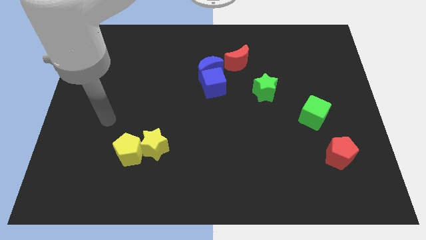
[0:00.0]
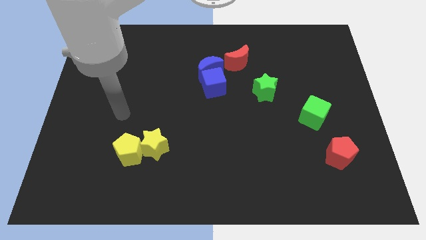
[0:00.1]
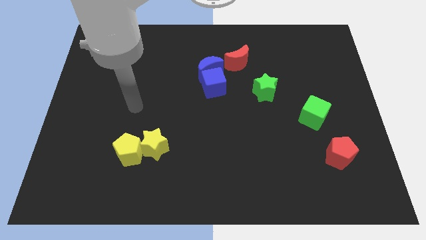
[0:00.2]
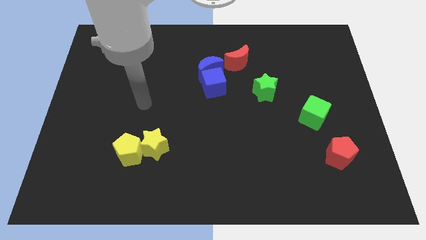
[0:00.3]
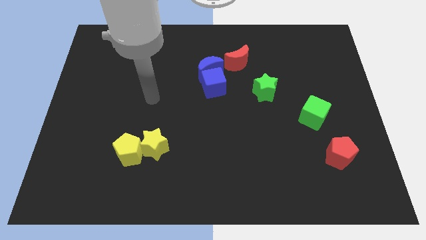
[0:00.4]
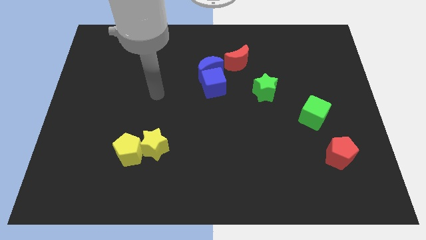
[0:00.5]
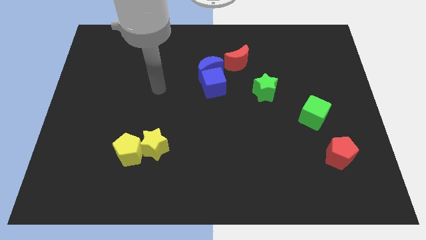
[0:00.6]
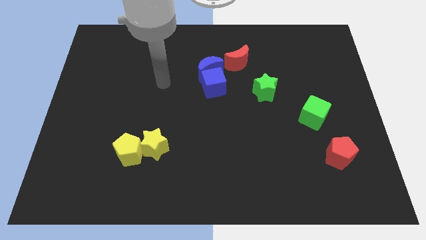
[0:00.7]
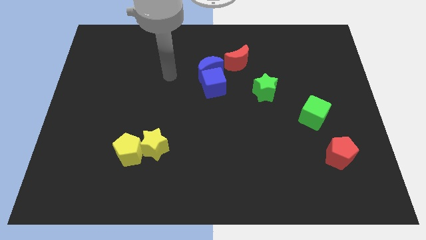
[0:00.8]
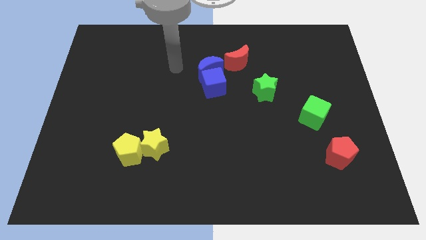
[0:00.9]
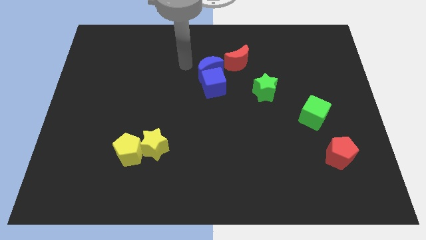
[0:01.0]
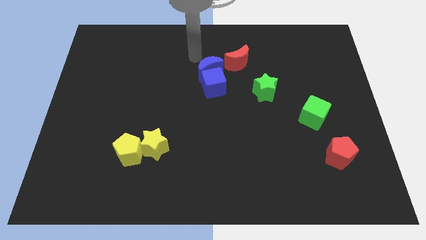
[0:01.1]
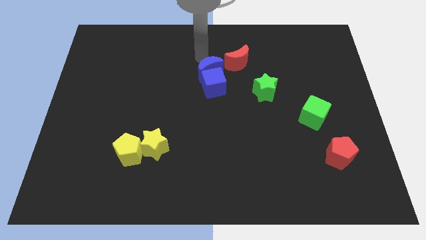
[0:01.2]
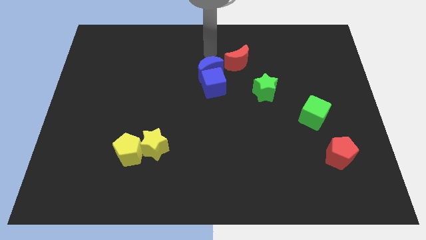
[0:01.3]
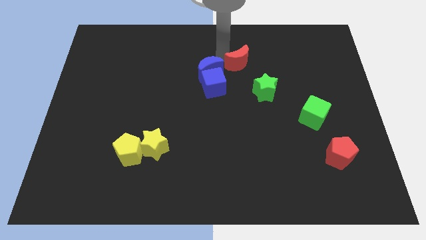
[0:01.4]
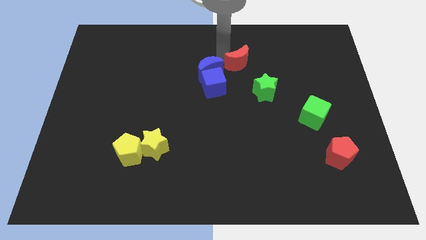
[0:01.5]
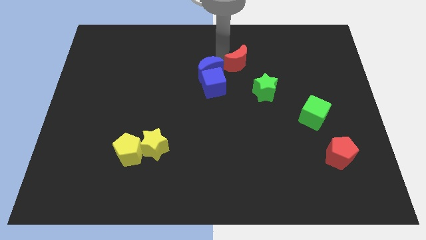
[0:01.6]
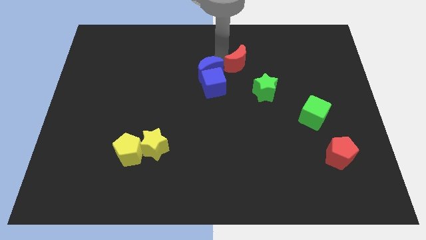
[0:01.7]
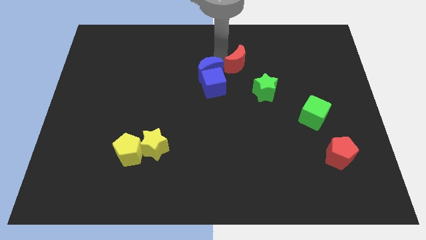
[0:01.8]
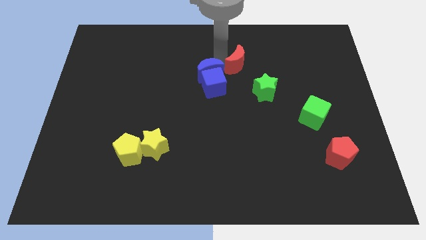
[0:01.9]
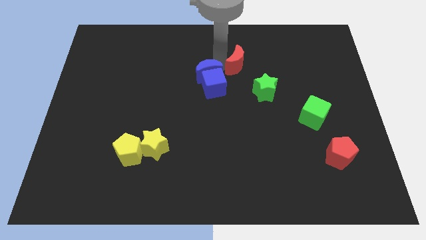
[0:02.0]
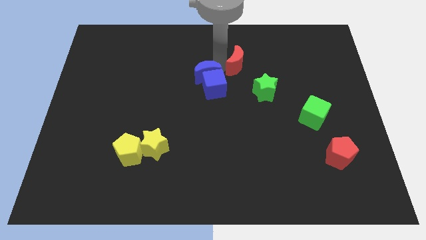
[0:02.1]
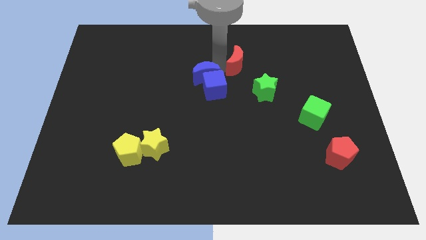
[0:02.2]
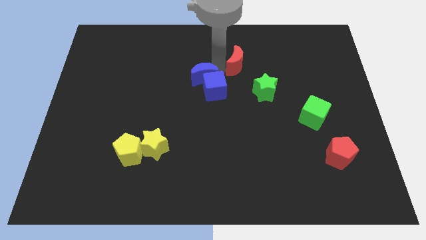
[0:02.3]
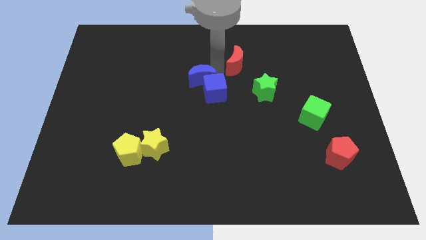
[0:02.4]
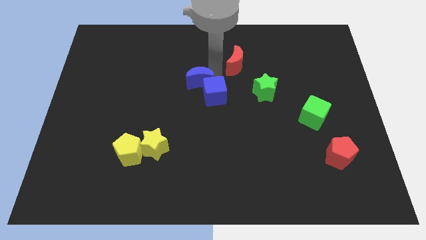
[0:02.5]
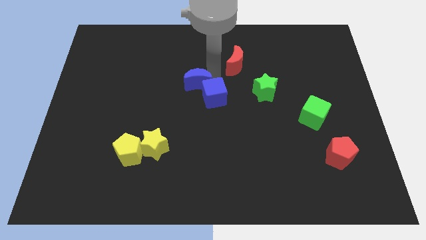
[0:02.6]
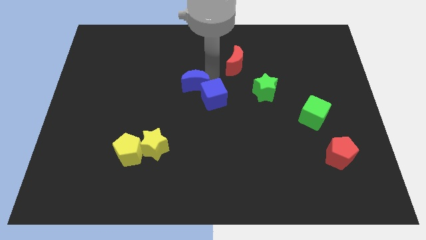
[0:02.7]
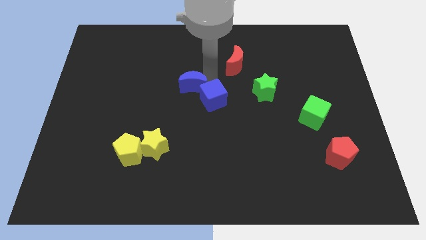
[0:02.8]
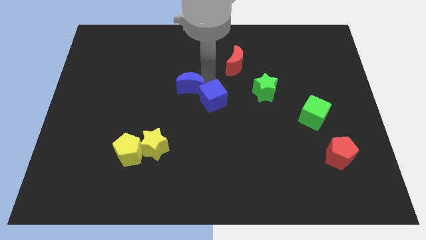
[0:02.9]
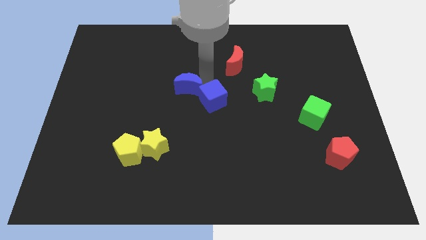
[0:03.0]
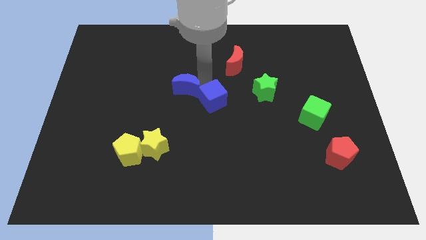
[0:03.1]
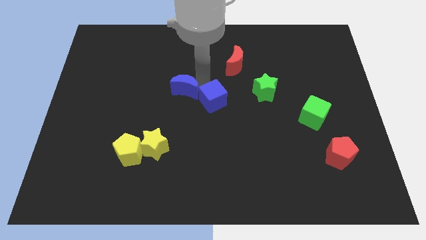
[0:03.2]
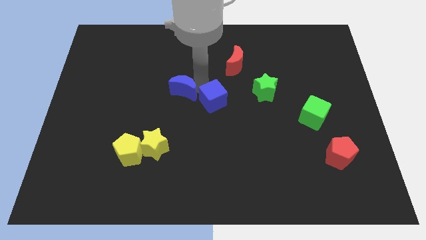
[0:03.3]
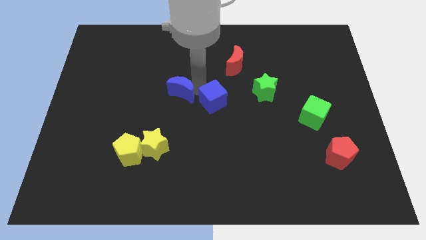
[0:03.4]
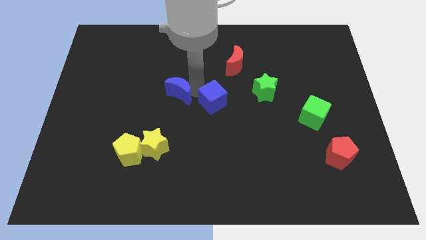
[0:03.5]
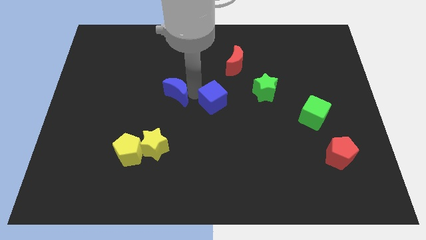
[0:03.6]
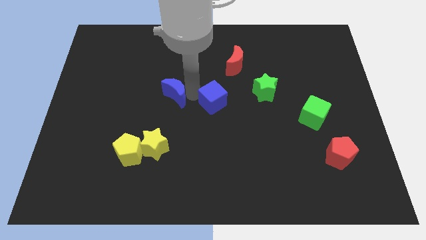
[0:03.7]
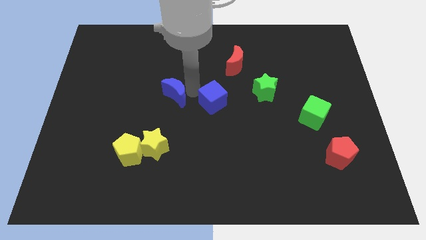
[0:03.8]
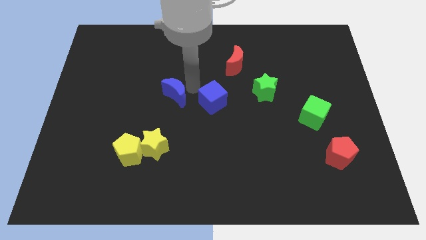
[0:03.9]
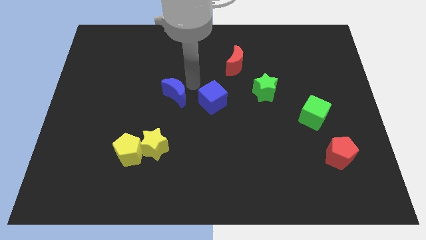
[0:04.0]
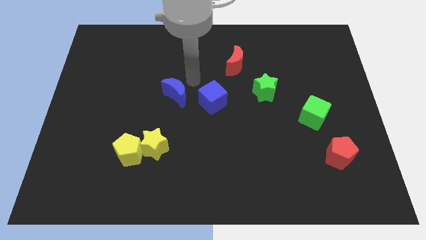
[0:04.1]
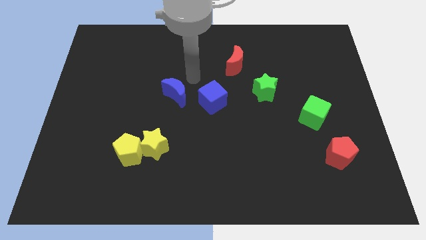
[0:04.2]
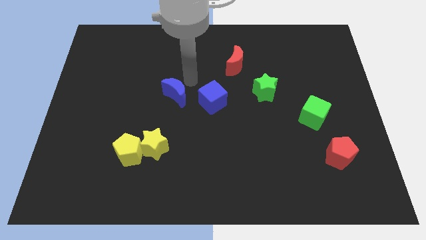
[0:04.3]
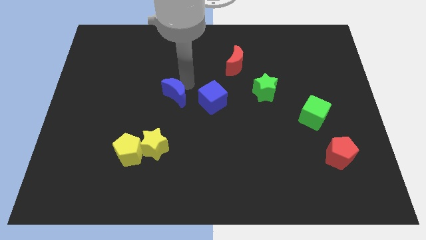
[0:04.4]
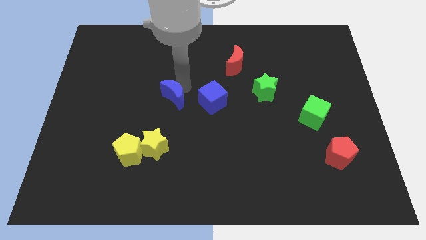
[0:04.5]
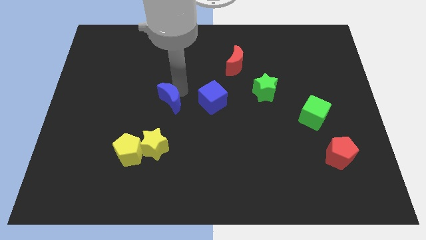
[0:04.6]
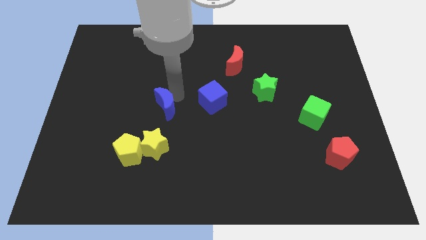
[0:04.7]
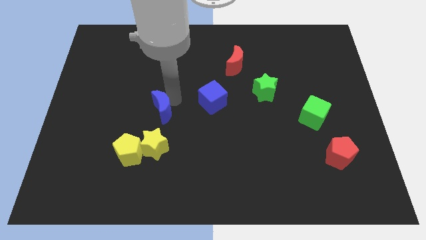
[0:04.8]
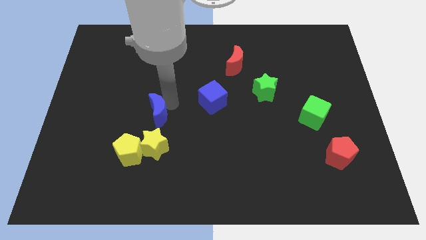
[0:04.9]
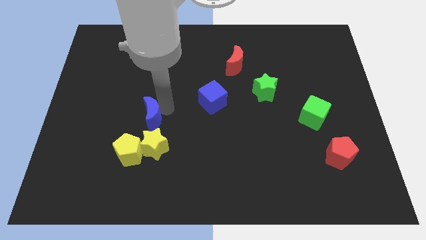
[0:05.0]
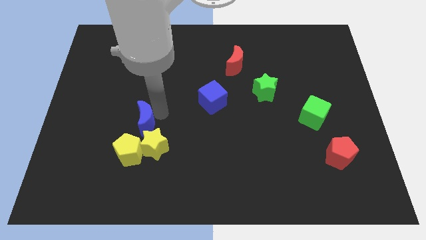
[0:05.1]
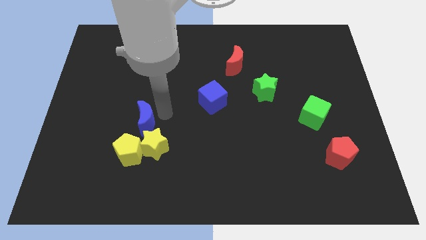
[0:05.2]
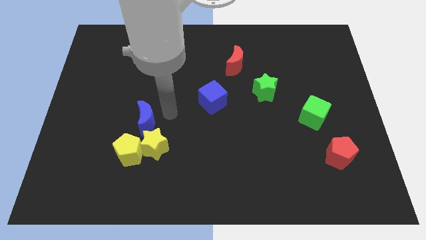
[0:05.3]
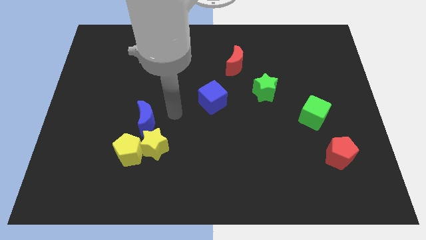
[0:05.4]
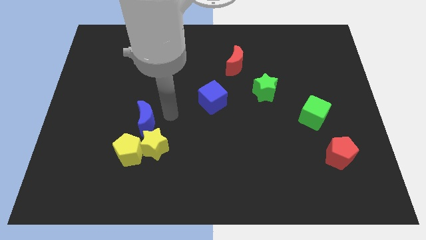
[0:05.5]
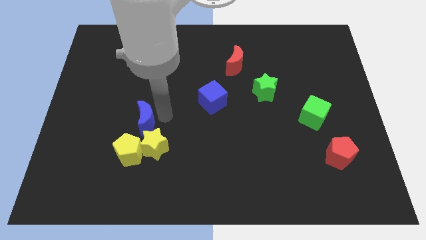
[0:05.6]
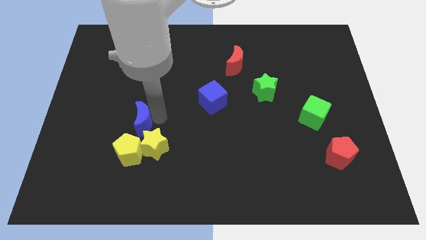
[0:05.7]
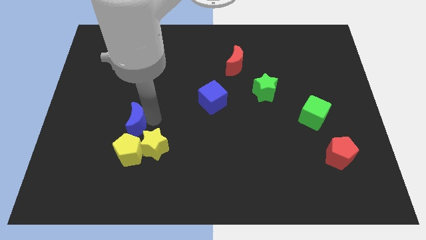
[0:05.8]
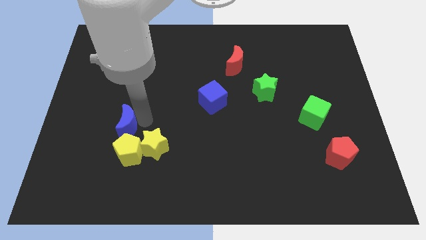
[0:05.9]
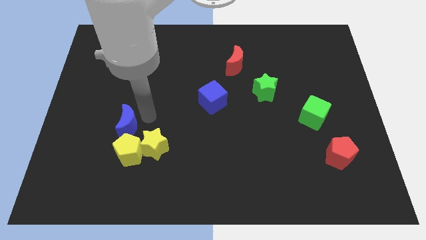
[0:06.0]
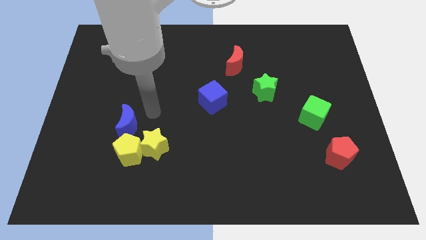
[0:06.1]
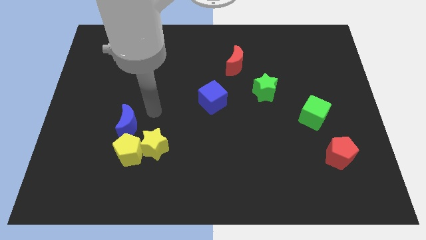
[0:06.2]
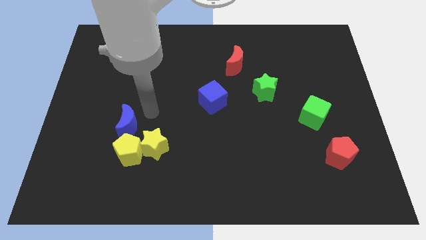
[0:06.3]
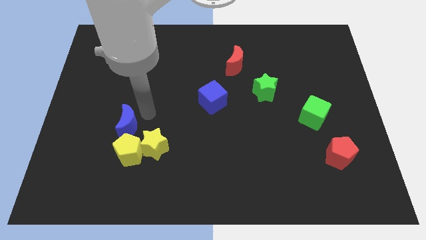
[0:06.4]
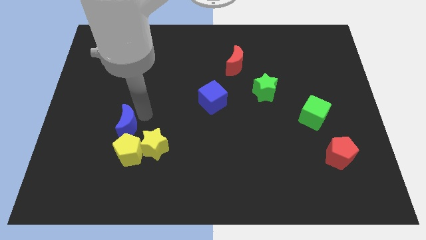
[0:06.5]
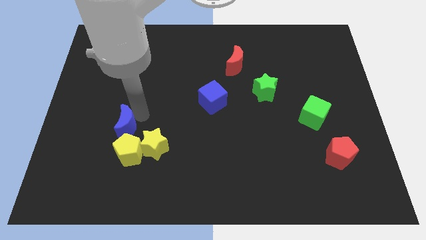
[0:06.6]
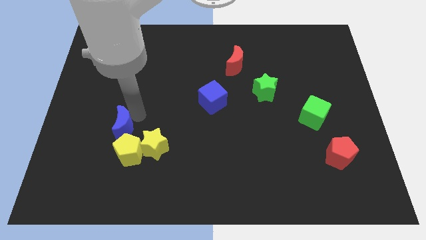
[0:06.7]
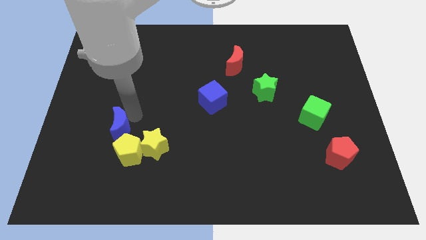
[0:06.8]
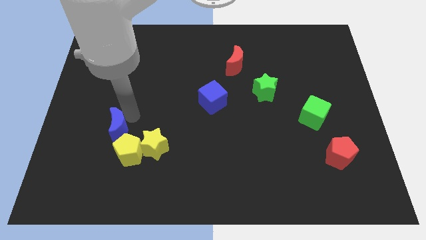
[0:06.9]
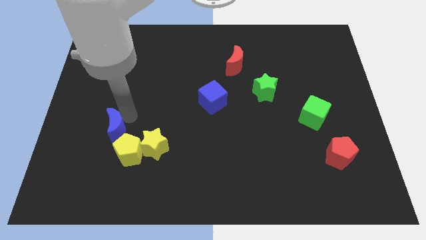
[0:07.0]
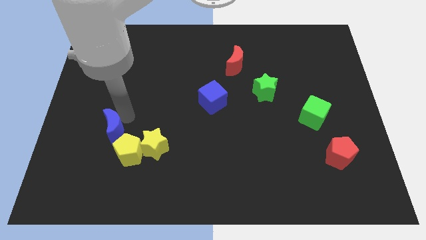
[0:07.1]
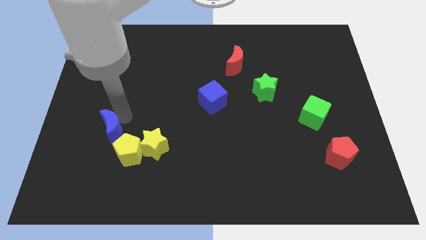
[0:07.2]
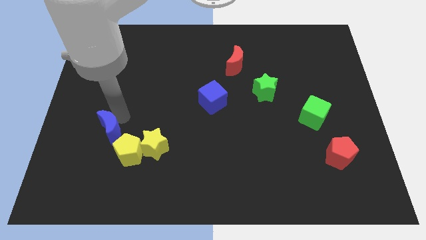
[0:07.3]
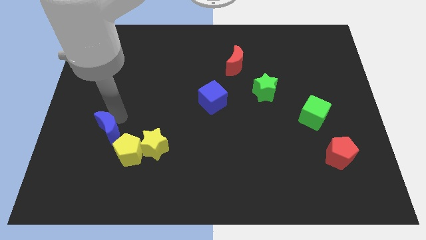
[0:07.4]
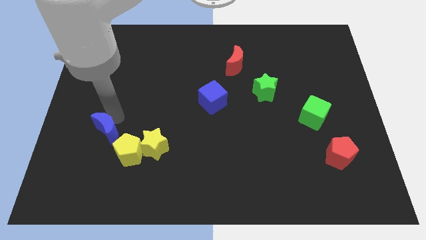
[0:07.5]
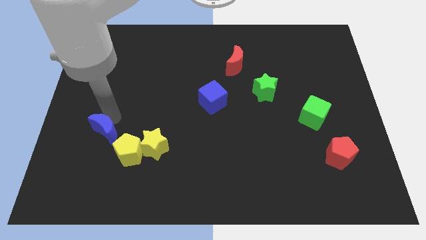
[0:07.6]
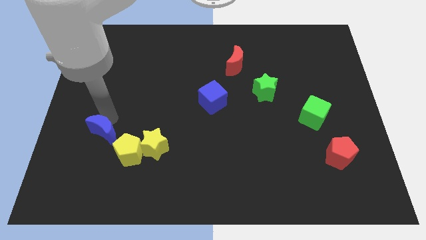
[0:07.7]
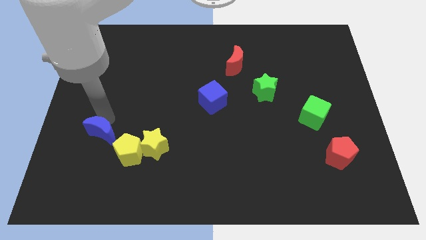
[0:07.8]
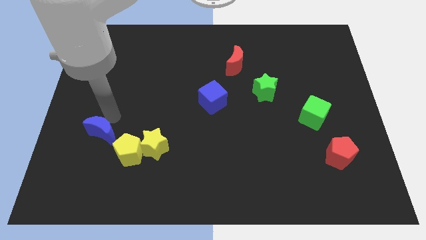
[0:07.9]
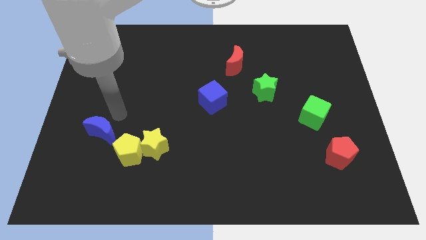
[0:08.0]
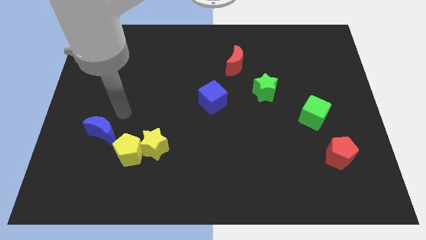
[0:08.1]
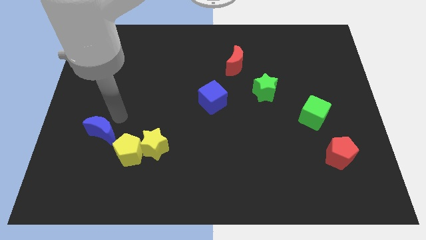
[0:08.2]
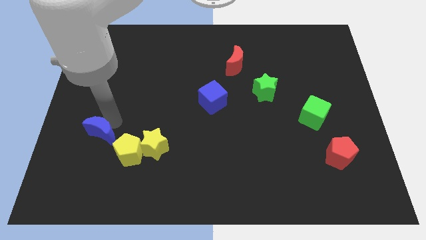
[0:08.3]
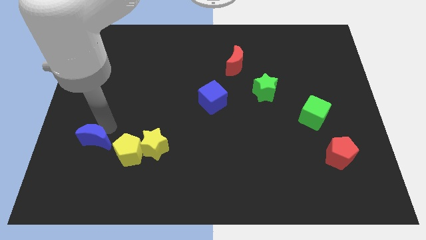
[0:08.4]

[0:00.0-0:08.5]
move the blue moon to the left side of the yellow pentagon
